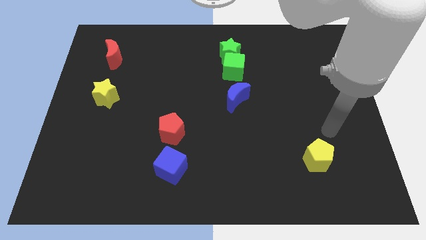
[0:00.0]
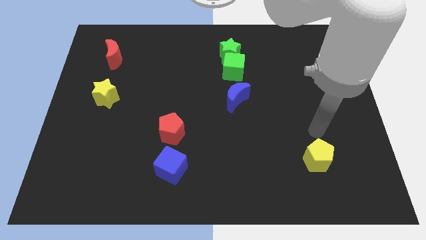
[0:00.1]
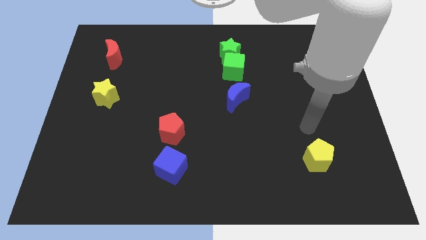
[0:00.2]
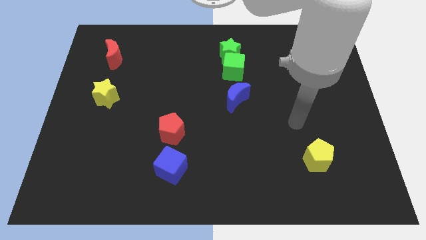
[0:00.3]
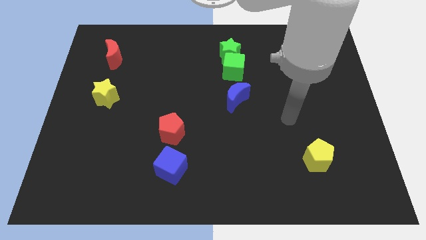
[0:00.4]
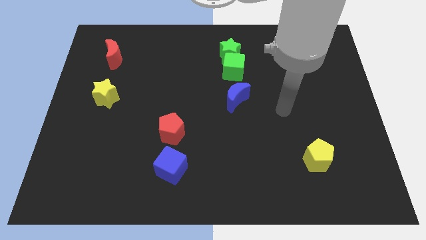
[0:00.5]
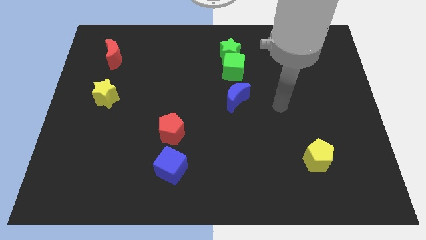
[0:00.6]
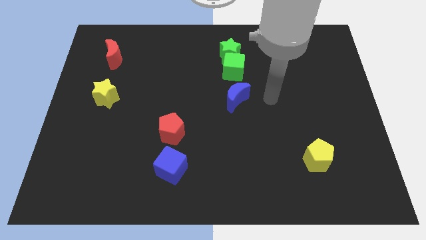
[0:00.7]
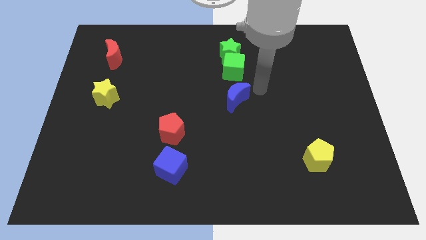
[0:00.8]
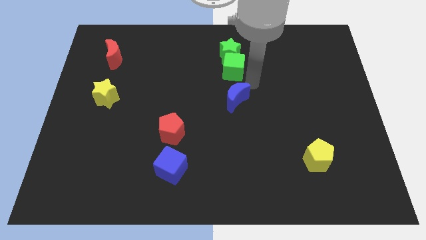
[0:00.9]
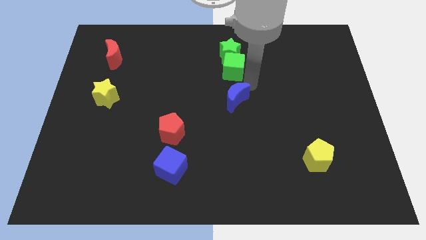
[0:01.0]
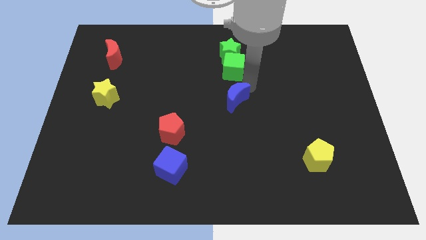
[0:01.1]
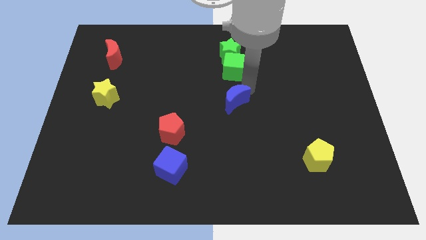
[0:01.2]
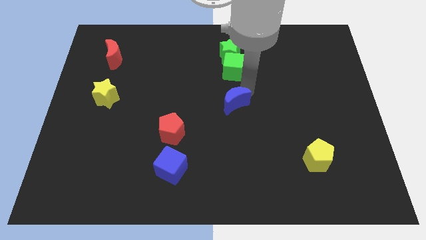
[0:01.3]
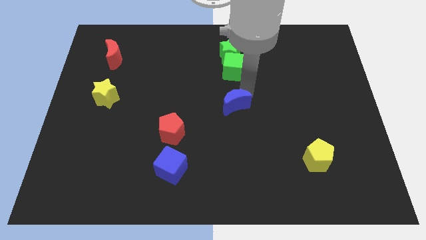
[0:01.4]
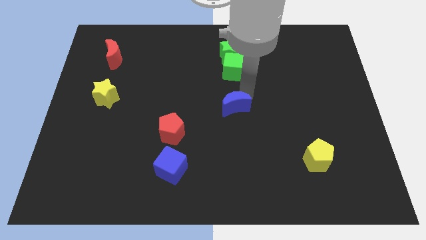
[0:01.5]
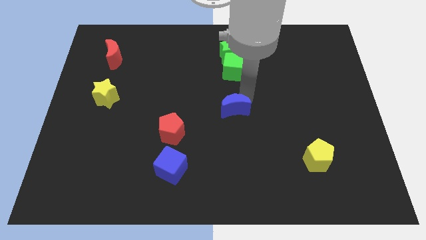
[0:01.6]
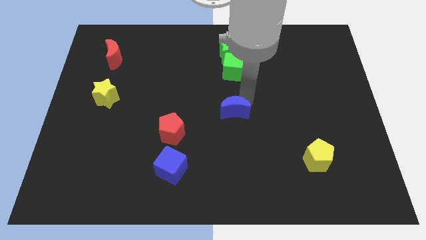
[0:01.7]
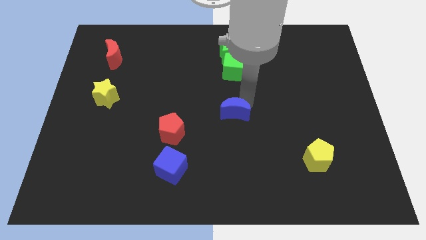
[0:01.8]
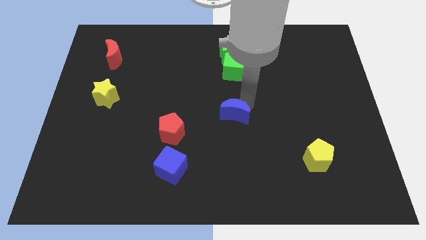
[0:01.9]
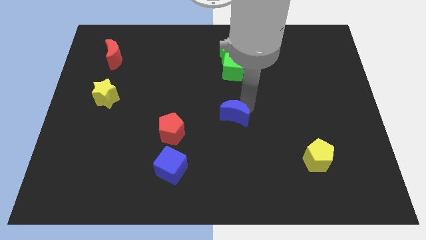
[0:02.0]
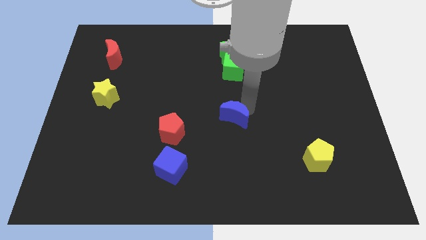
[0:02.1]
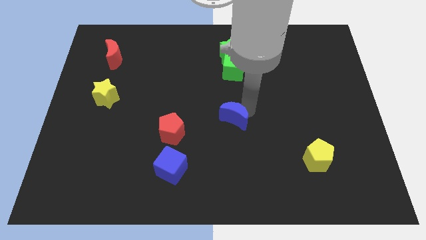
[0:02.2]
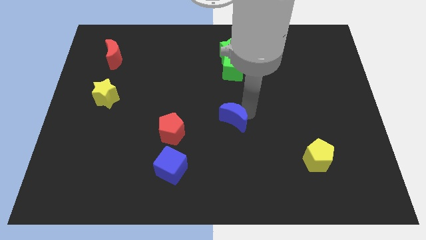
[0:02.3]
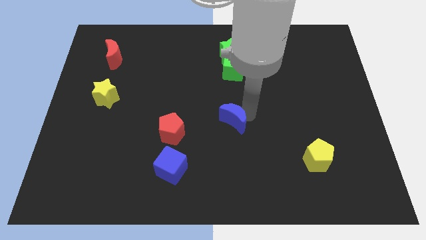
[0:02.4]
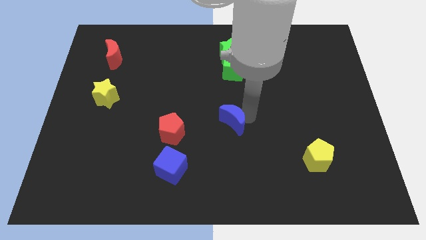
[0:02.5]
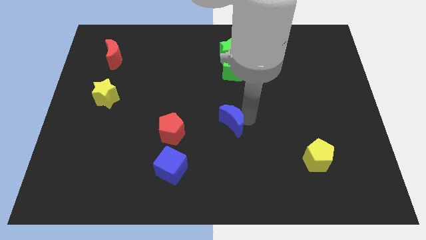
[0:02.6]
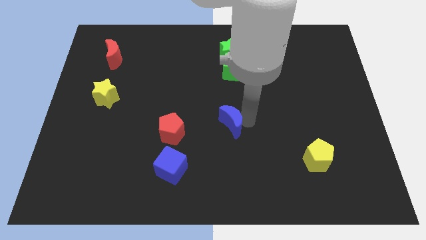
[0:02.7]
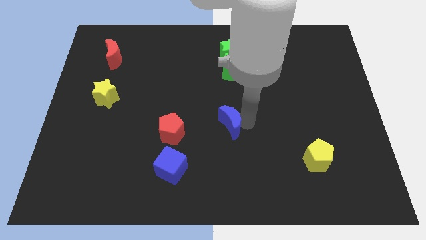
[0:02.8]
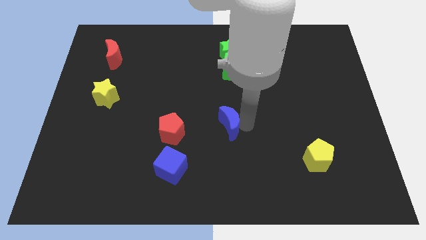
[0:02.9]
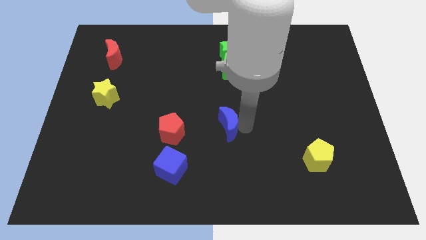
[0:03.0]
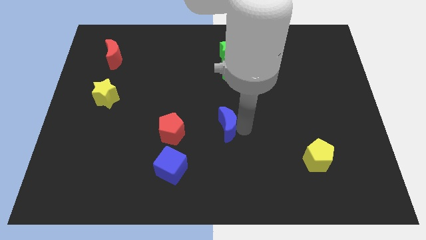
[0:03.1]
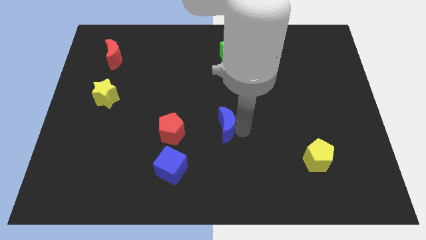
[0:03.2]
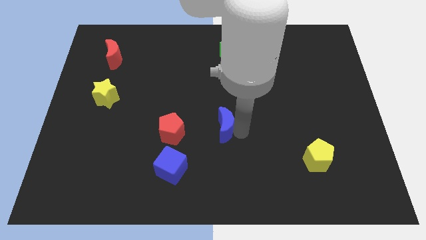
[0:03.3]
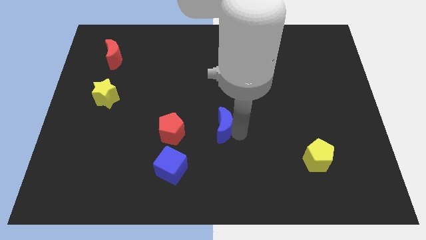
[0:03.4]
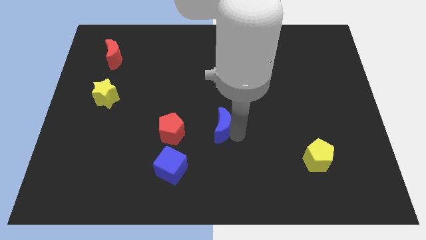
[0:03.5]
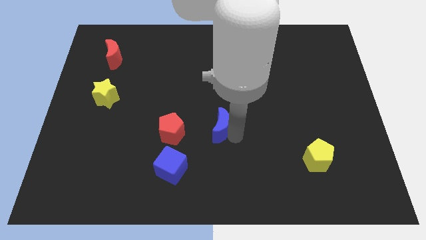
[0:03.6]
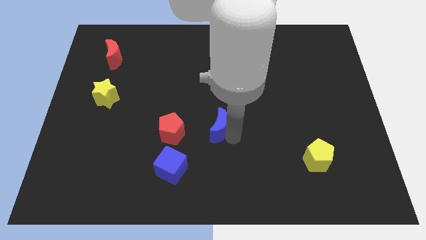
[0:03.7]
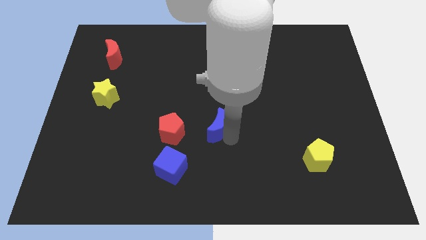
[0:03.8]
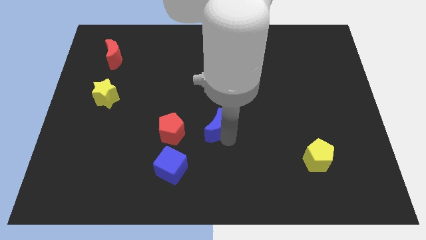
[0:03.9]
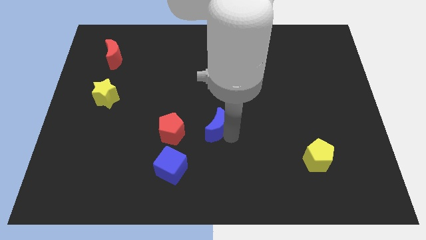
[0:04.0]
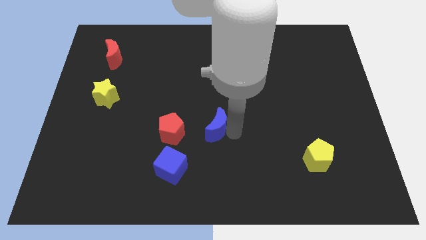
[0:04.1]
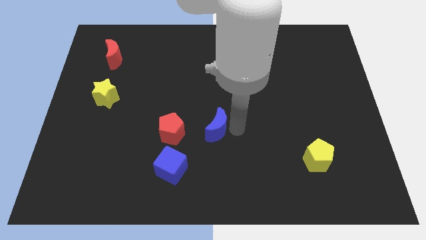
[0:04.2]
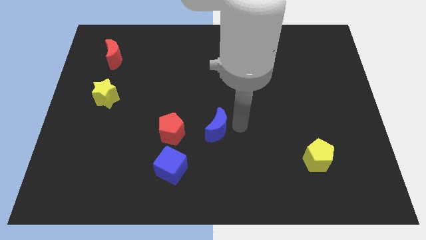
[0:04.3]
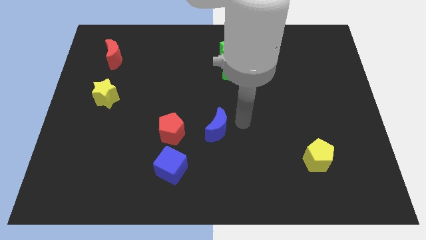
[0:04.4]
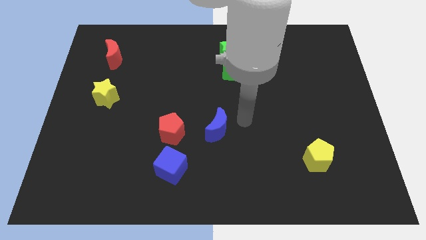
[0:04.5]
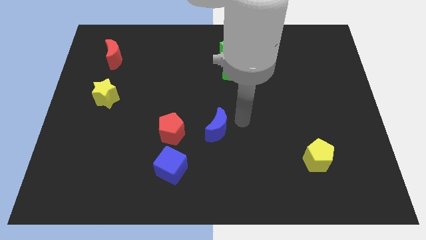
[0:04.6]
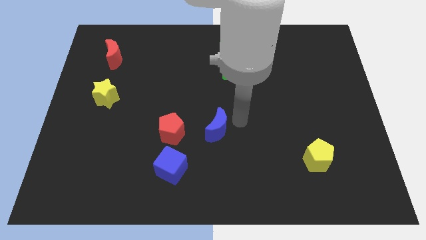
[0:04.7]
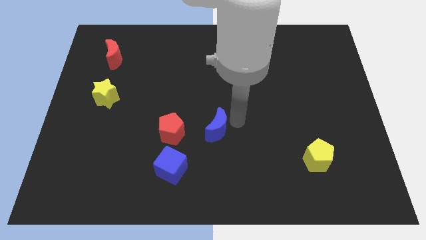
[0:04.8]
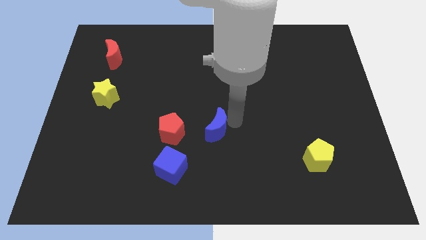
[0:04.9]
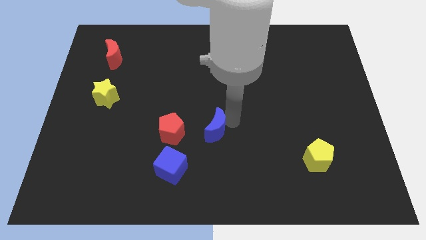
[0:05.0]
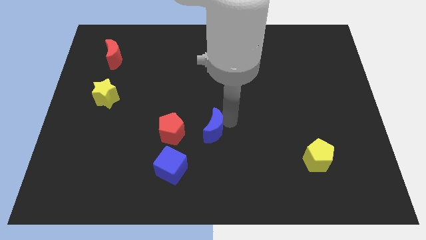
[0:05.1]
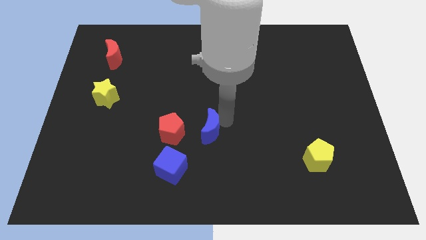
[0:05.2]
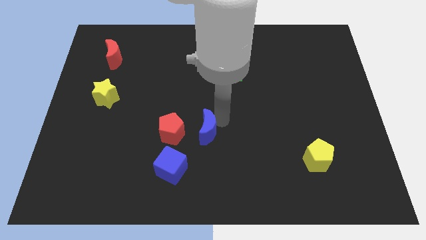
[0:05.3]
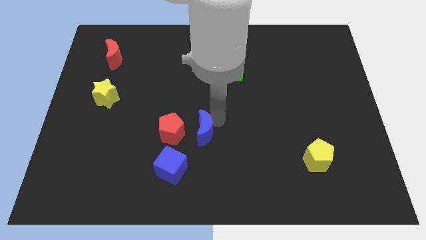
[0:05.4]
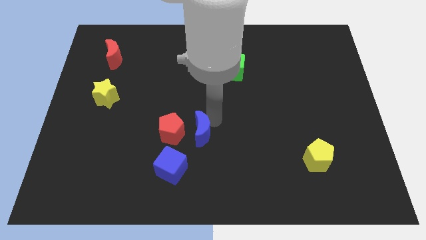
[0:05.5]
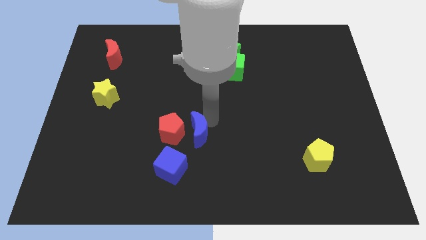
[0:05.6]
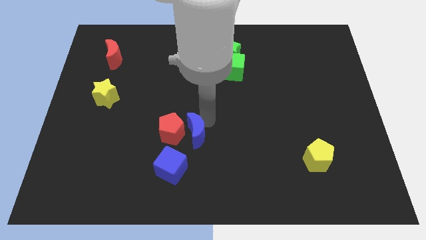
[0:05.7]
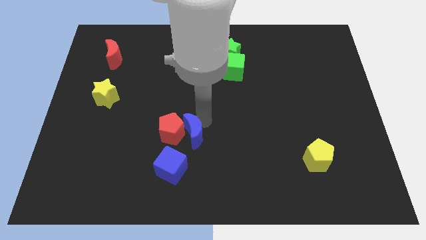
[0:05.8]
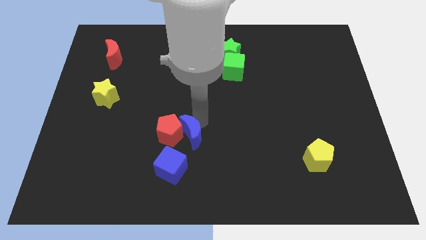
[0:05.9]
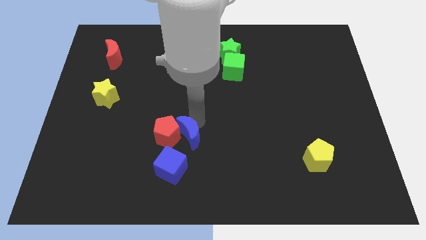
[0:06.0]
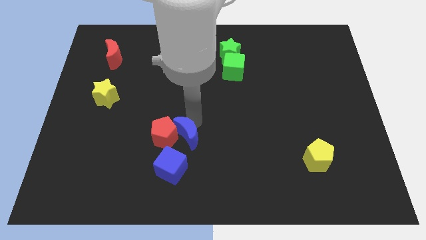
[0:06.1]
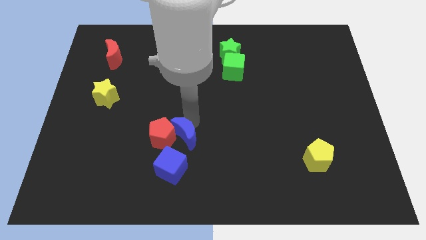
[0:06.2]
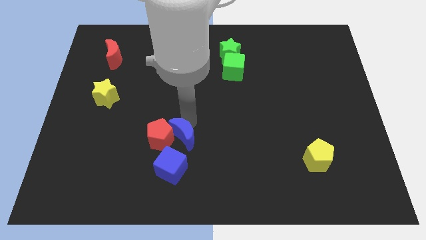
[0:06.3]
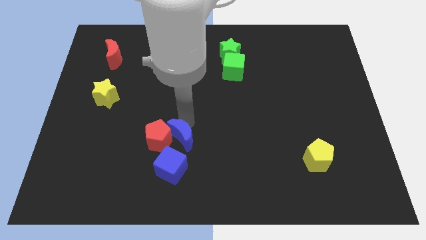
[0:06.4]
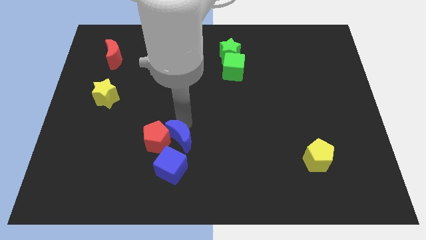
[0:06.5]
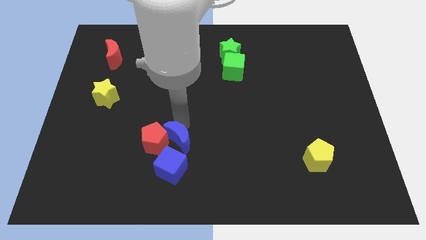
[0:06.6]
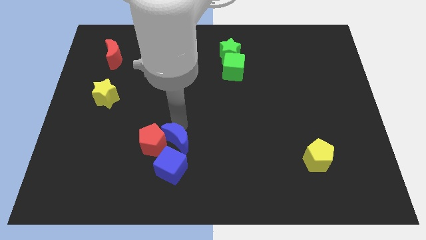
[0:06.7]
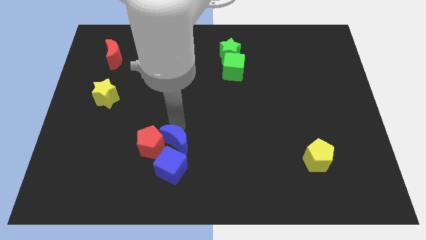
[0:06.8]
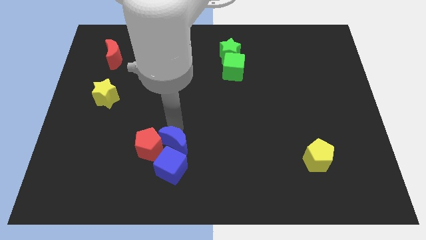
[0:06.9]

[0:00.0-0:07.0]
slide the blue moon to the blue cube
